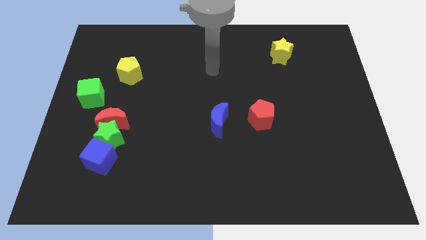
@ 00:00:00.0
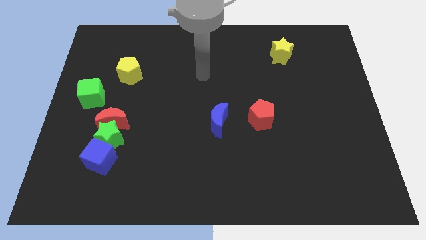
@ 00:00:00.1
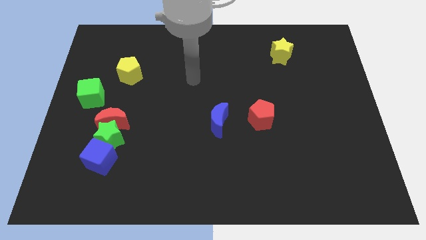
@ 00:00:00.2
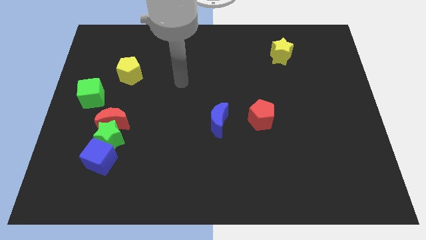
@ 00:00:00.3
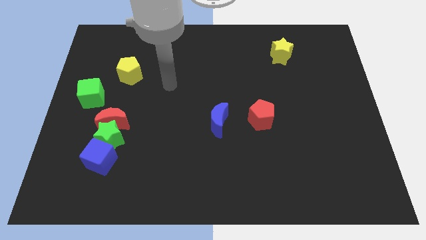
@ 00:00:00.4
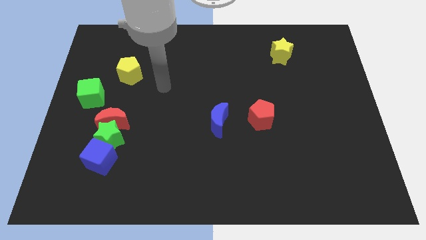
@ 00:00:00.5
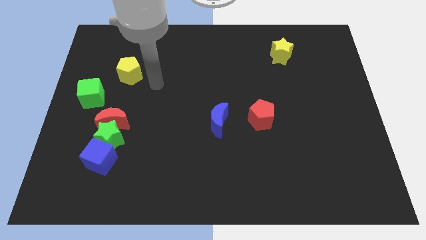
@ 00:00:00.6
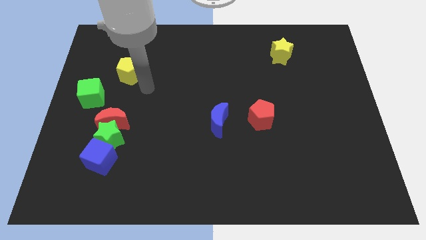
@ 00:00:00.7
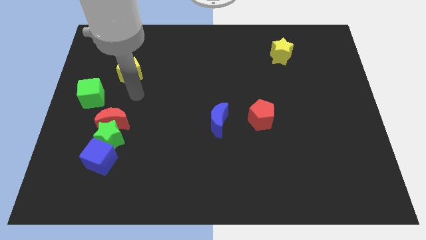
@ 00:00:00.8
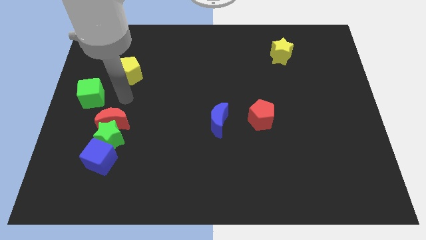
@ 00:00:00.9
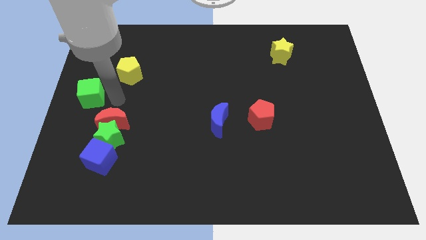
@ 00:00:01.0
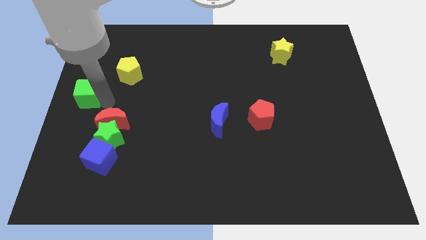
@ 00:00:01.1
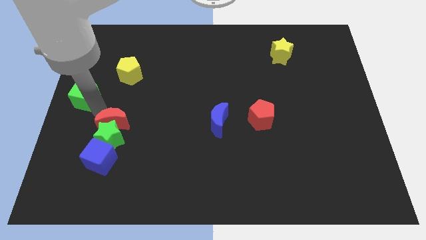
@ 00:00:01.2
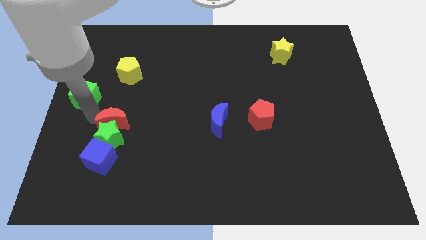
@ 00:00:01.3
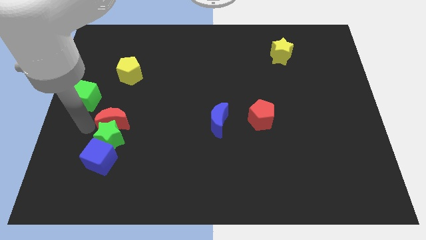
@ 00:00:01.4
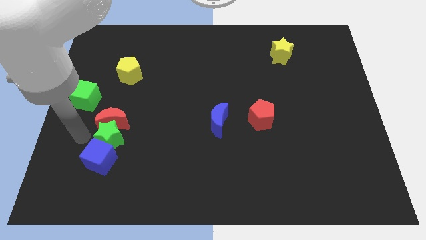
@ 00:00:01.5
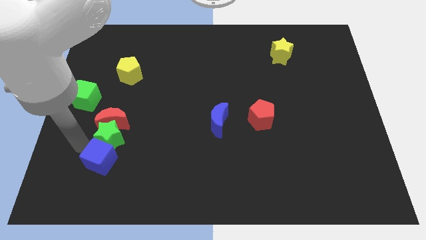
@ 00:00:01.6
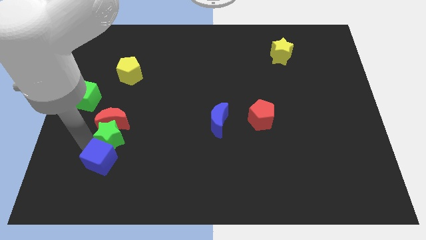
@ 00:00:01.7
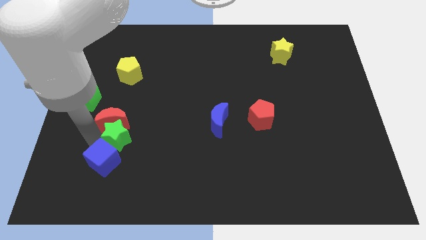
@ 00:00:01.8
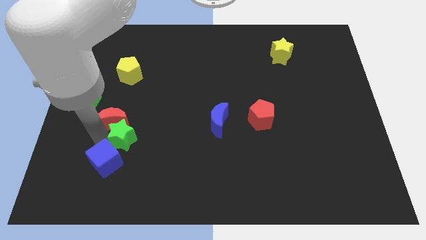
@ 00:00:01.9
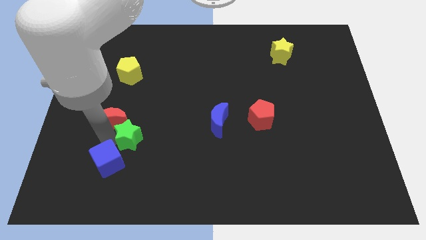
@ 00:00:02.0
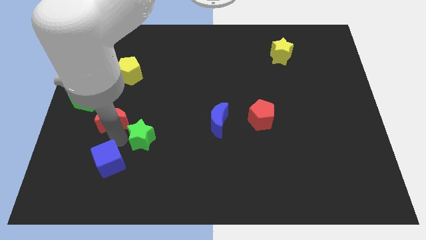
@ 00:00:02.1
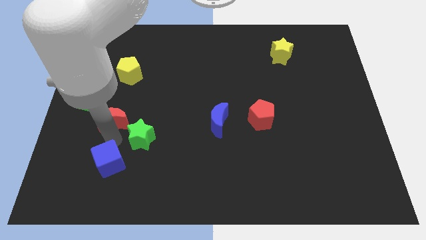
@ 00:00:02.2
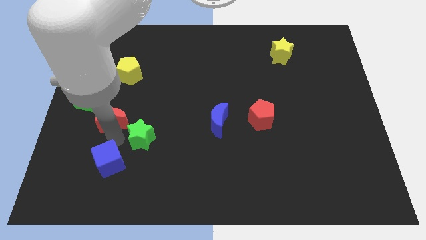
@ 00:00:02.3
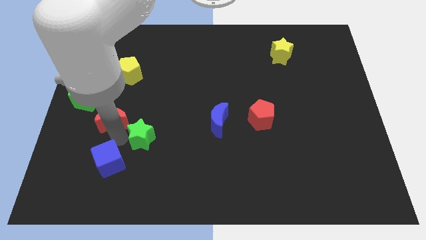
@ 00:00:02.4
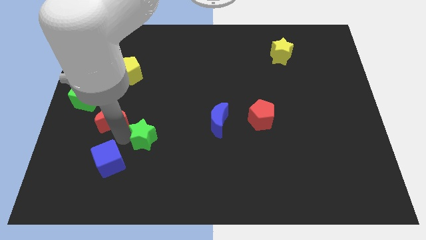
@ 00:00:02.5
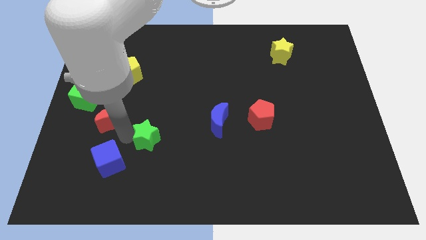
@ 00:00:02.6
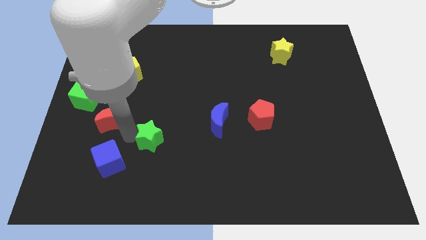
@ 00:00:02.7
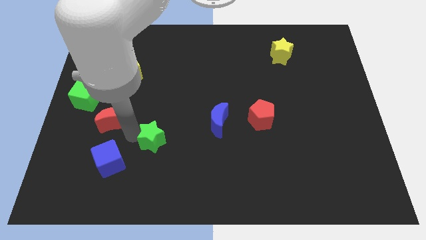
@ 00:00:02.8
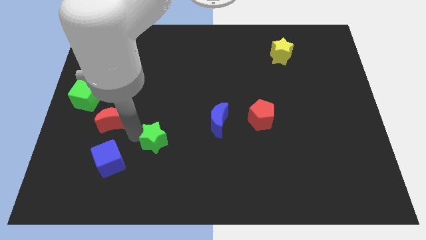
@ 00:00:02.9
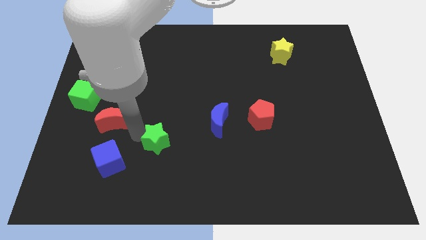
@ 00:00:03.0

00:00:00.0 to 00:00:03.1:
pull the green star apart from the red moon and blue cube

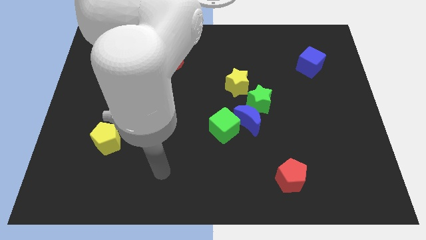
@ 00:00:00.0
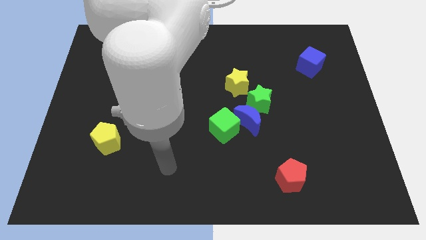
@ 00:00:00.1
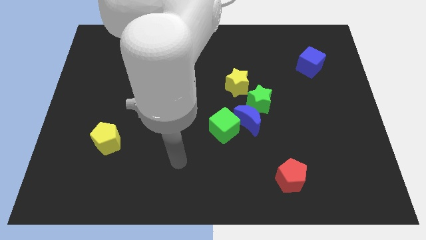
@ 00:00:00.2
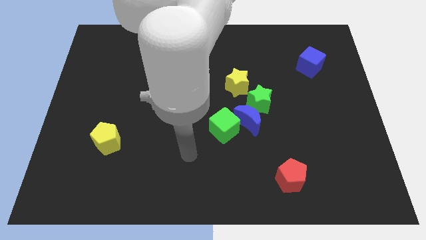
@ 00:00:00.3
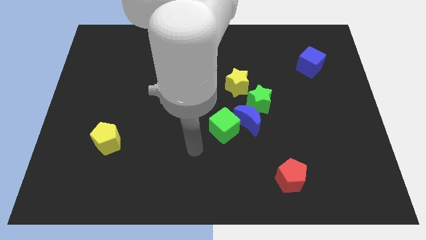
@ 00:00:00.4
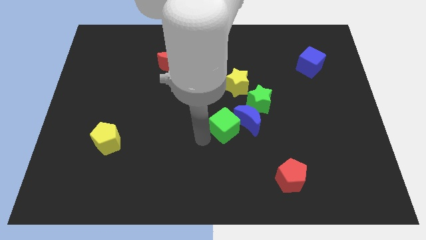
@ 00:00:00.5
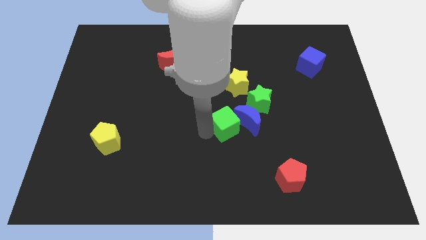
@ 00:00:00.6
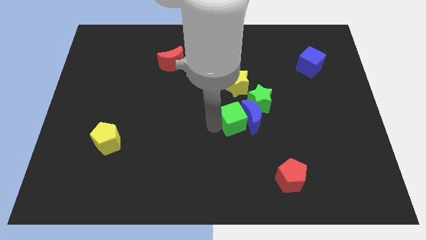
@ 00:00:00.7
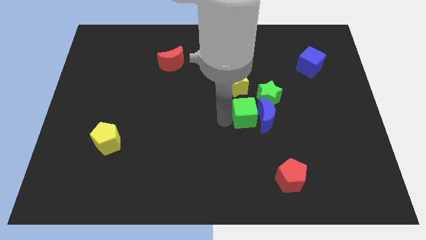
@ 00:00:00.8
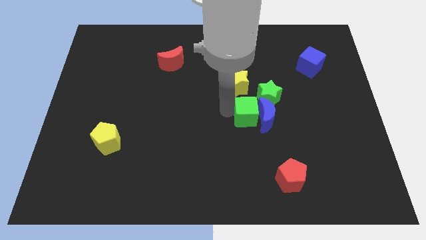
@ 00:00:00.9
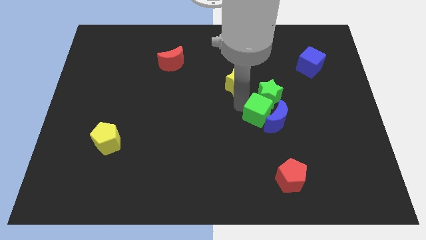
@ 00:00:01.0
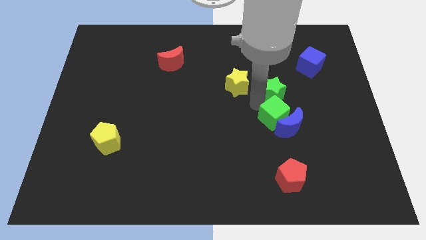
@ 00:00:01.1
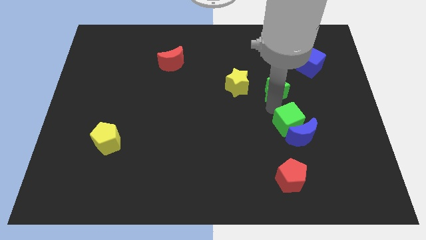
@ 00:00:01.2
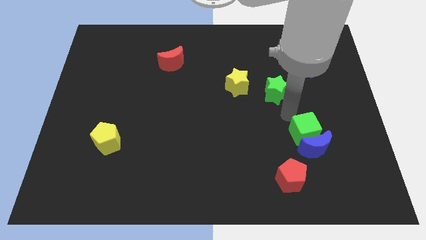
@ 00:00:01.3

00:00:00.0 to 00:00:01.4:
separate the blue moon from the green star and green cube

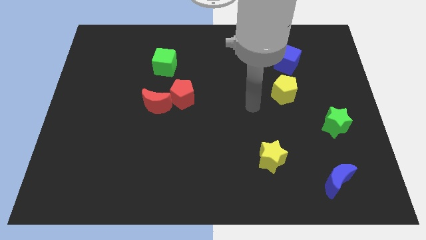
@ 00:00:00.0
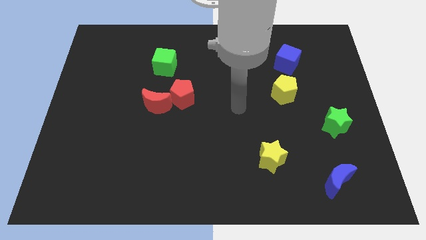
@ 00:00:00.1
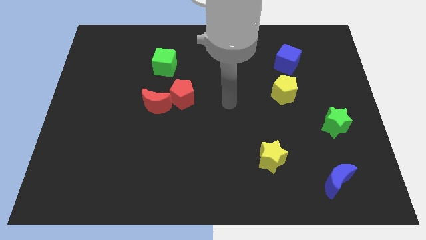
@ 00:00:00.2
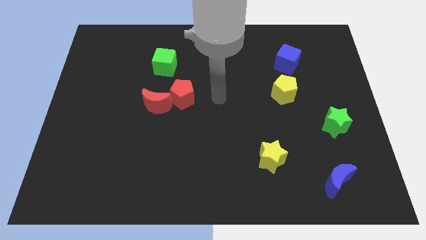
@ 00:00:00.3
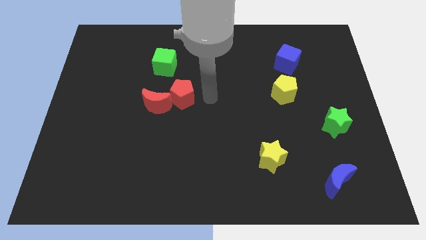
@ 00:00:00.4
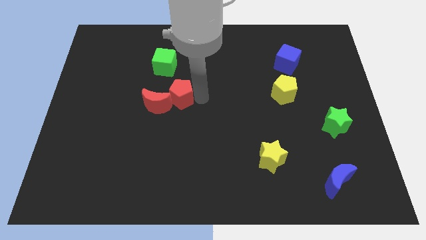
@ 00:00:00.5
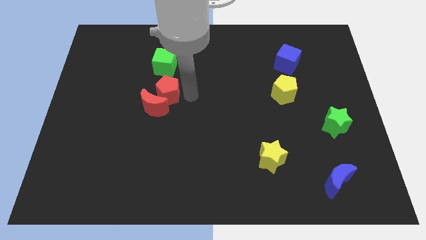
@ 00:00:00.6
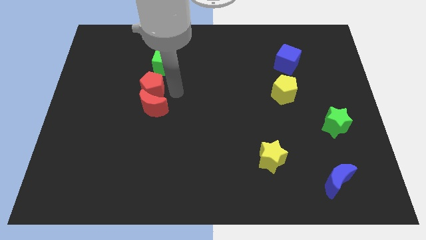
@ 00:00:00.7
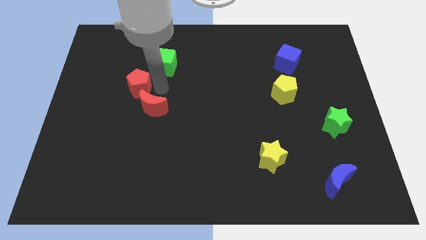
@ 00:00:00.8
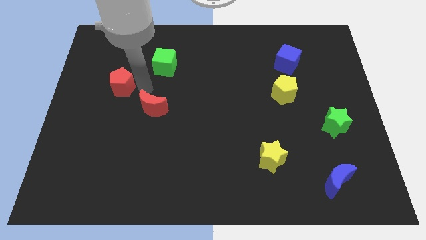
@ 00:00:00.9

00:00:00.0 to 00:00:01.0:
separate the red moon from the red pentagon

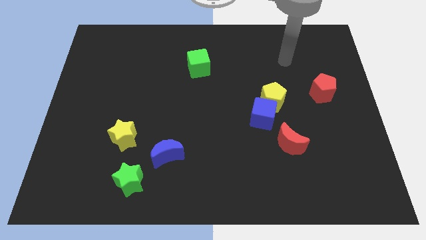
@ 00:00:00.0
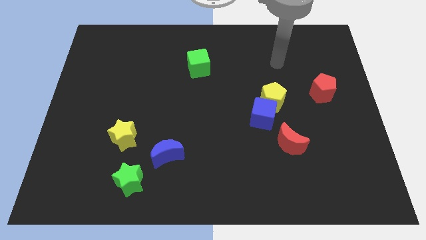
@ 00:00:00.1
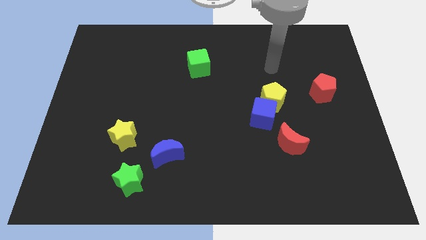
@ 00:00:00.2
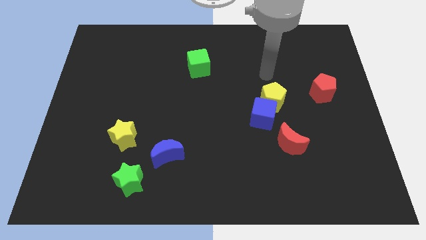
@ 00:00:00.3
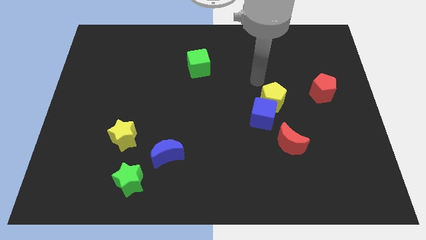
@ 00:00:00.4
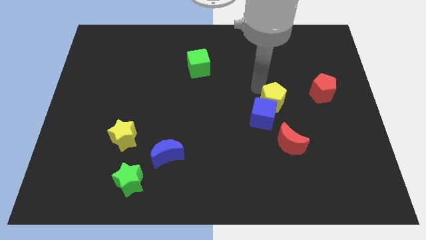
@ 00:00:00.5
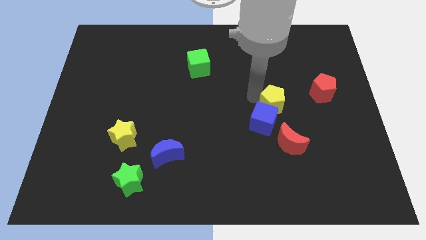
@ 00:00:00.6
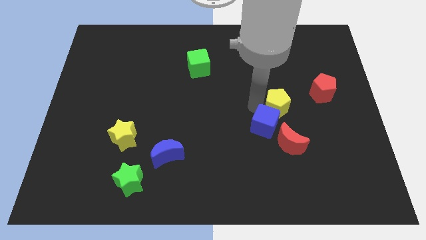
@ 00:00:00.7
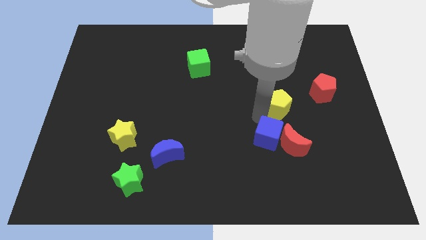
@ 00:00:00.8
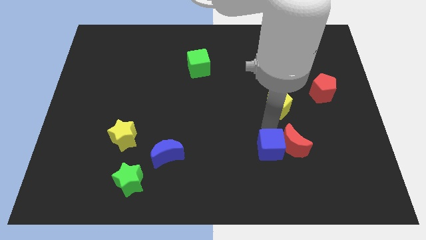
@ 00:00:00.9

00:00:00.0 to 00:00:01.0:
move the yellow pentagon away from the blue cube

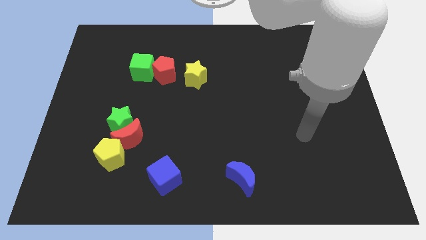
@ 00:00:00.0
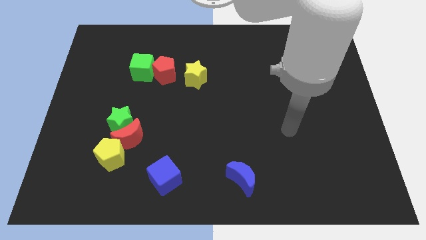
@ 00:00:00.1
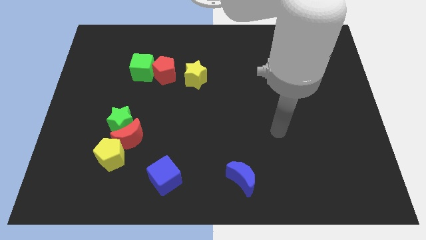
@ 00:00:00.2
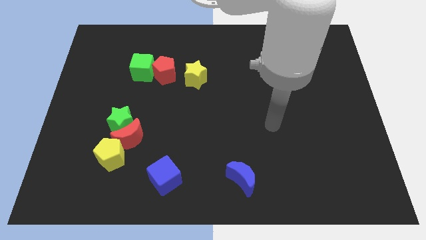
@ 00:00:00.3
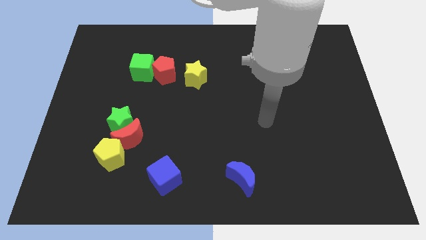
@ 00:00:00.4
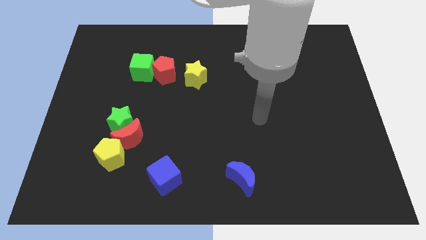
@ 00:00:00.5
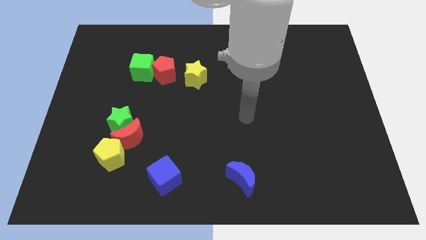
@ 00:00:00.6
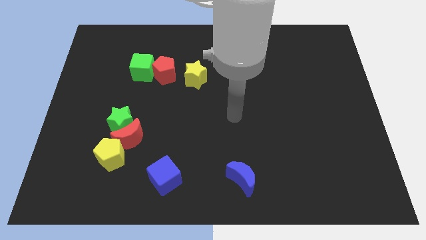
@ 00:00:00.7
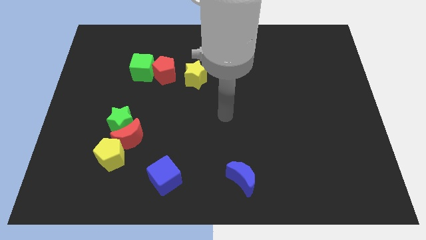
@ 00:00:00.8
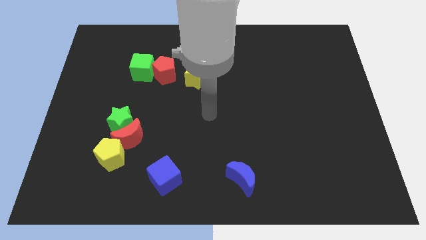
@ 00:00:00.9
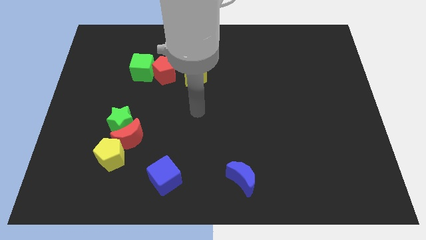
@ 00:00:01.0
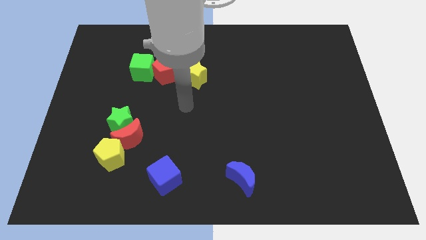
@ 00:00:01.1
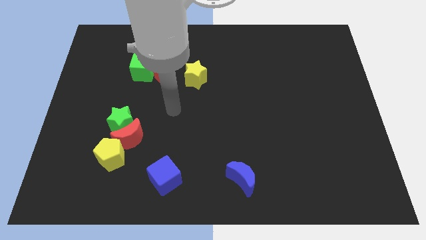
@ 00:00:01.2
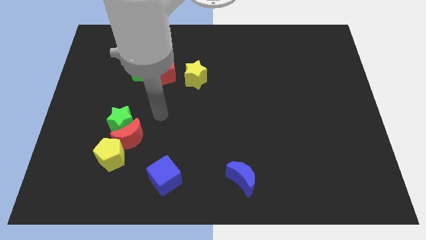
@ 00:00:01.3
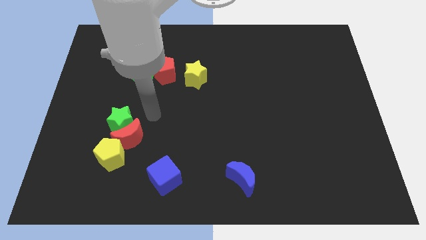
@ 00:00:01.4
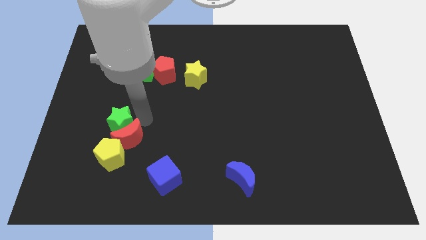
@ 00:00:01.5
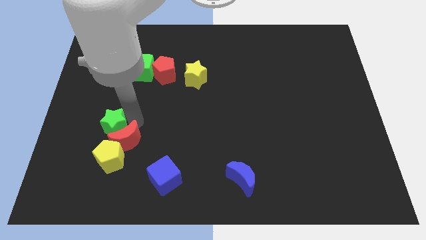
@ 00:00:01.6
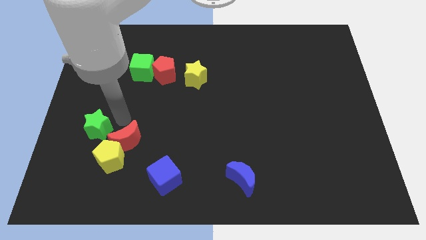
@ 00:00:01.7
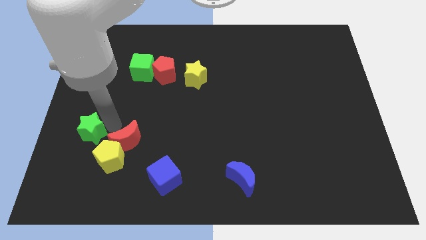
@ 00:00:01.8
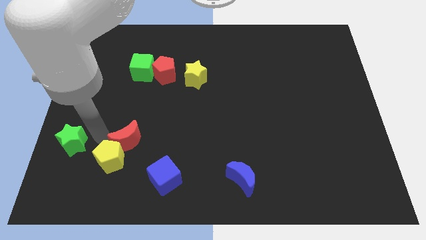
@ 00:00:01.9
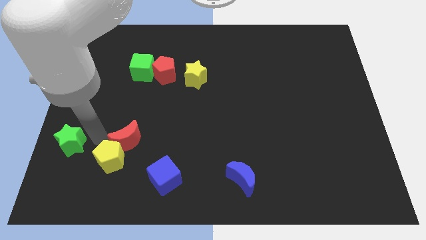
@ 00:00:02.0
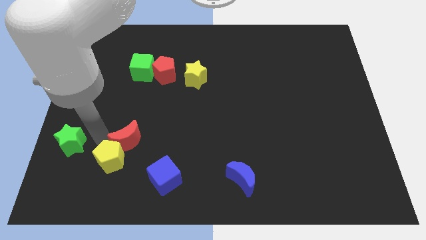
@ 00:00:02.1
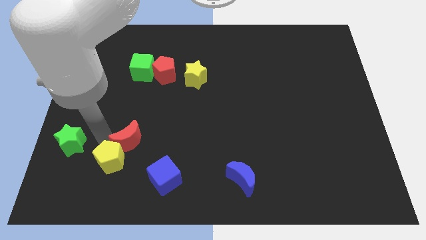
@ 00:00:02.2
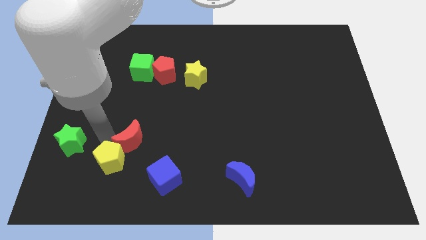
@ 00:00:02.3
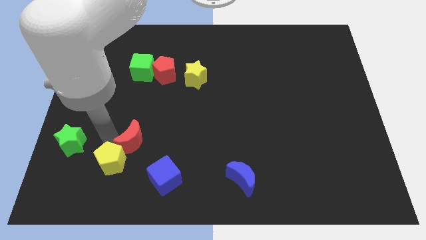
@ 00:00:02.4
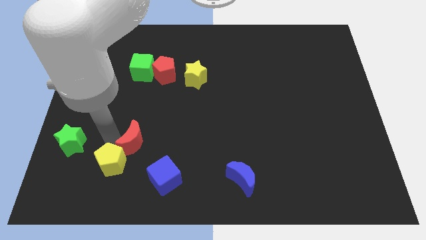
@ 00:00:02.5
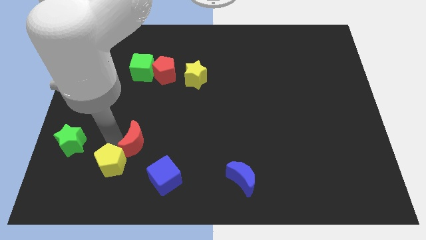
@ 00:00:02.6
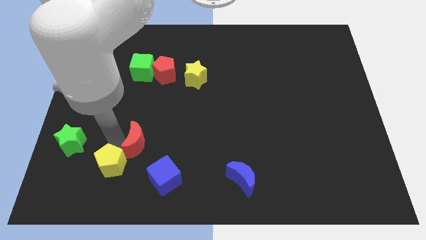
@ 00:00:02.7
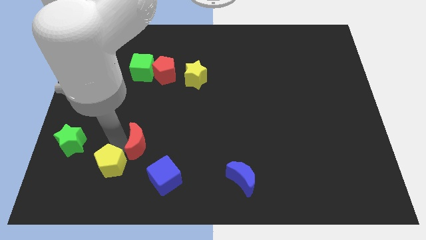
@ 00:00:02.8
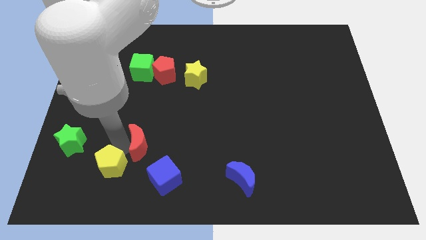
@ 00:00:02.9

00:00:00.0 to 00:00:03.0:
pull the red moon apart from the green star and yellow pentagon
